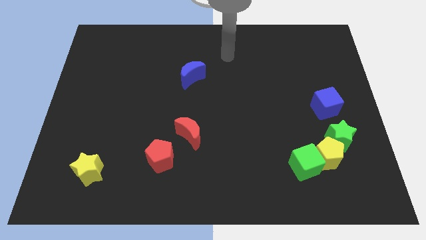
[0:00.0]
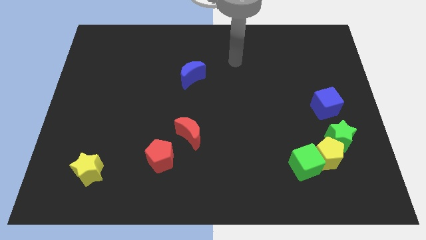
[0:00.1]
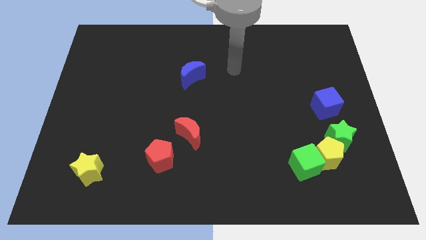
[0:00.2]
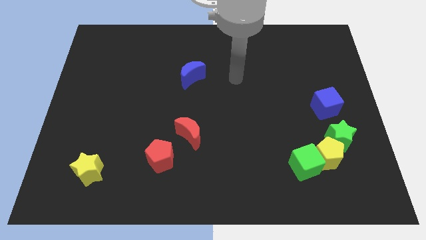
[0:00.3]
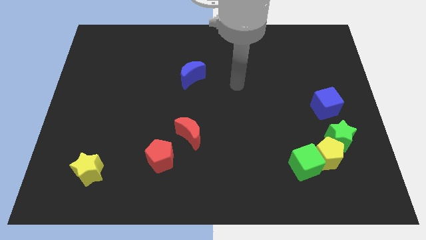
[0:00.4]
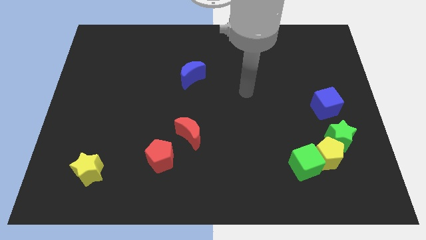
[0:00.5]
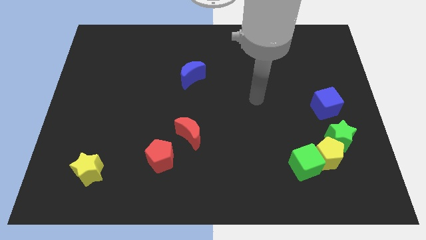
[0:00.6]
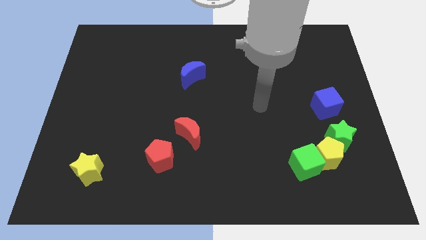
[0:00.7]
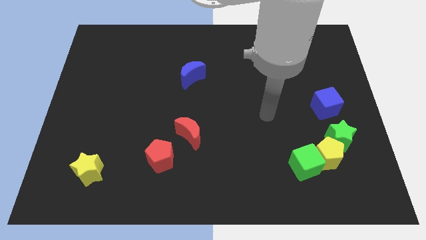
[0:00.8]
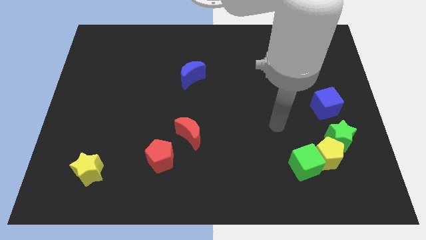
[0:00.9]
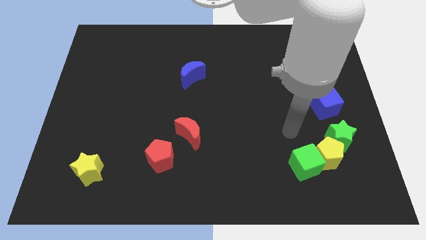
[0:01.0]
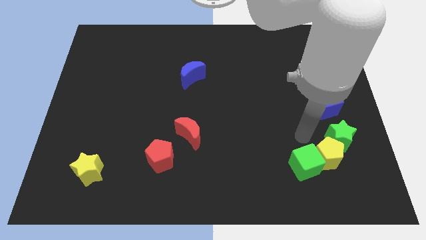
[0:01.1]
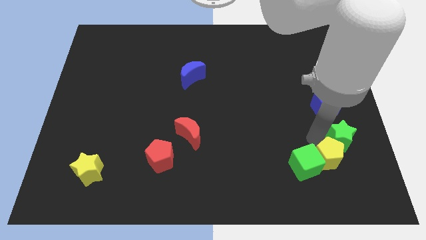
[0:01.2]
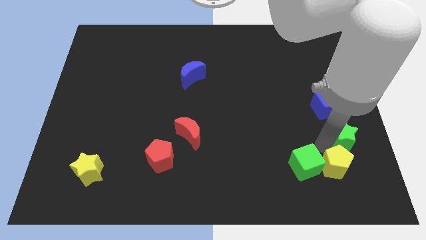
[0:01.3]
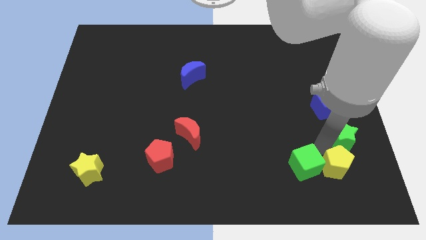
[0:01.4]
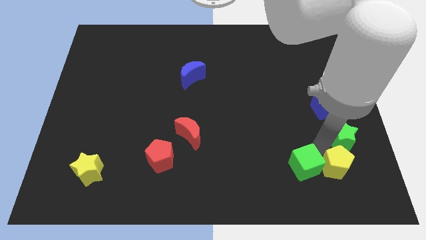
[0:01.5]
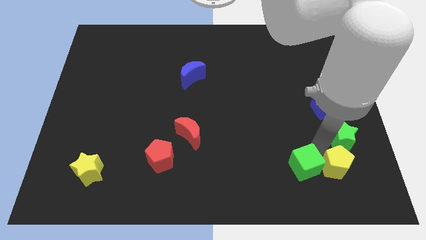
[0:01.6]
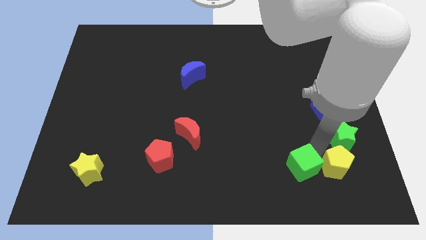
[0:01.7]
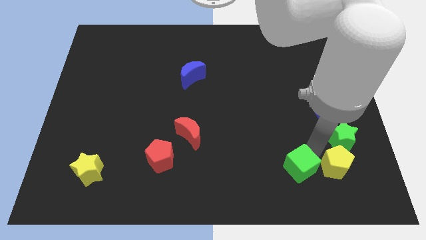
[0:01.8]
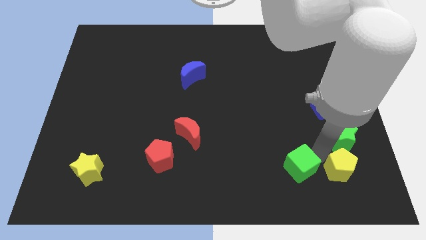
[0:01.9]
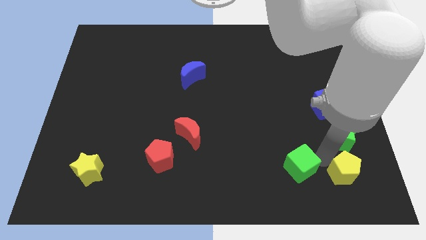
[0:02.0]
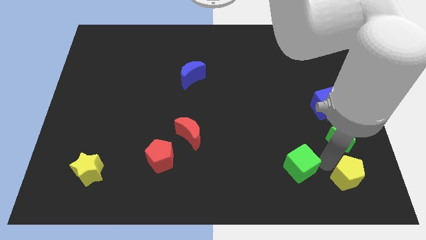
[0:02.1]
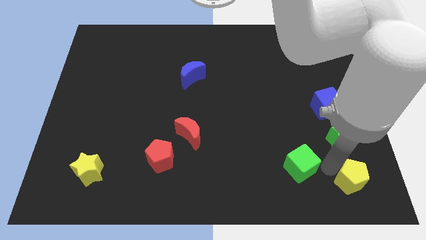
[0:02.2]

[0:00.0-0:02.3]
move the green cube away from the yellow pentagon

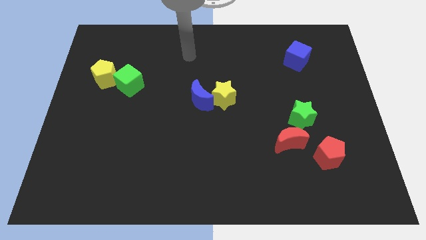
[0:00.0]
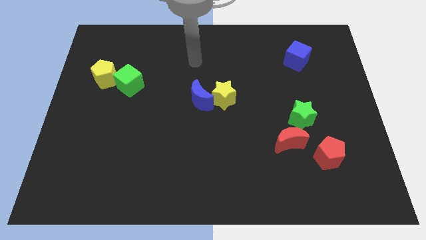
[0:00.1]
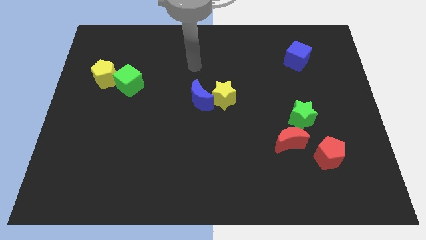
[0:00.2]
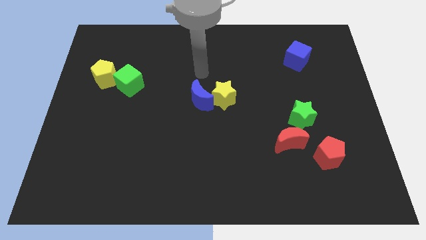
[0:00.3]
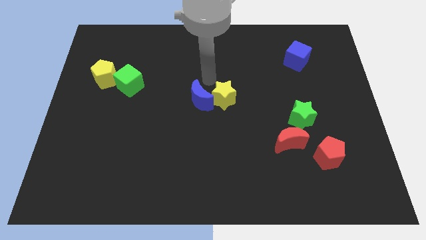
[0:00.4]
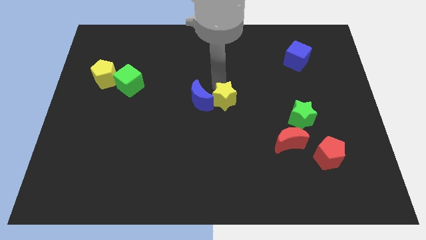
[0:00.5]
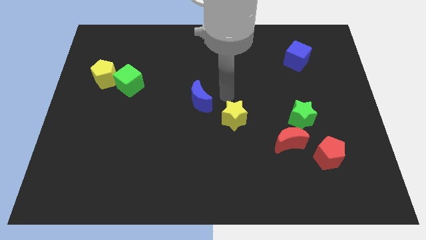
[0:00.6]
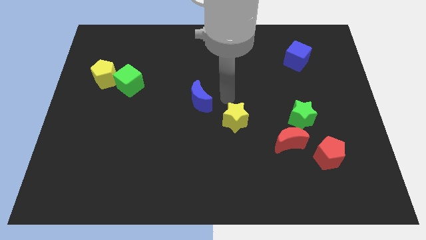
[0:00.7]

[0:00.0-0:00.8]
pull the blue moon apart from the yellow star

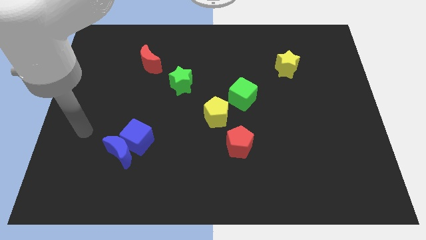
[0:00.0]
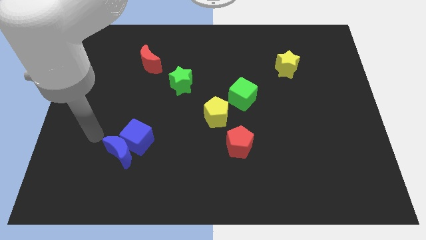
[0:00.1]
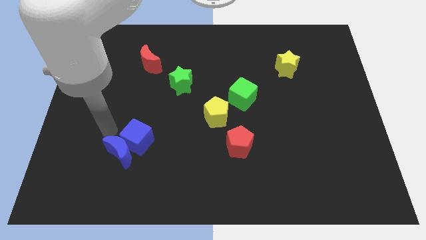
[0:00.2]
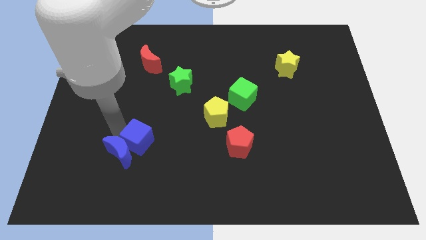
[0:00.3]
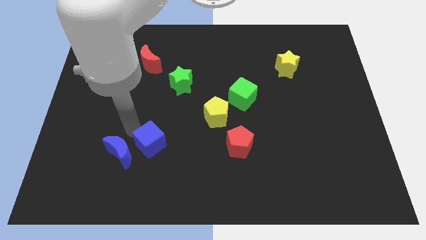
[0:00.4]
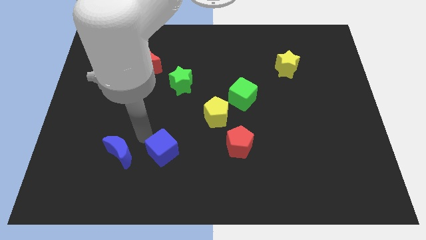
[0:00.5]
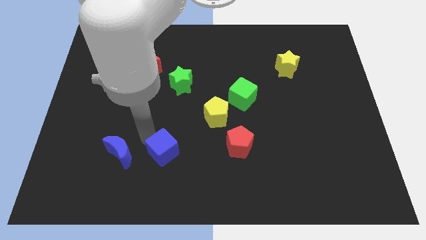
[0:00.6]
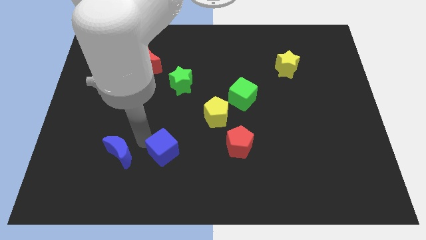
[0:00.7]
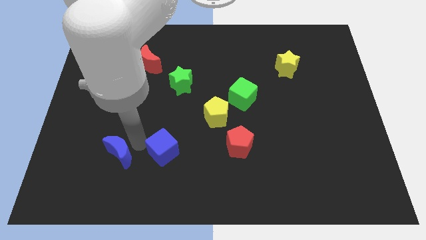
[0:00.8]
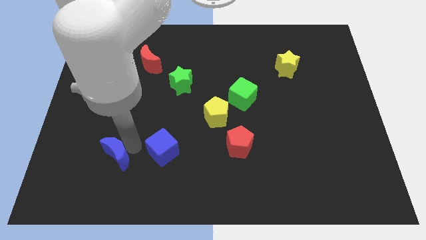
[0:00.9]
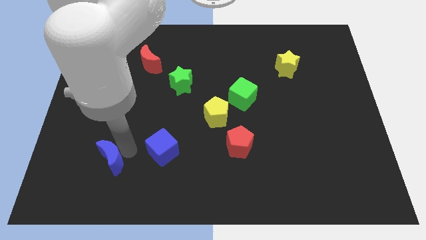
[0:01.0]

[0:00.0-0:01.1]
pull the blue moon apart from the blue cube

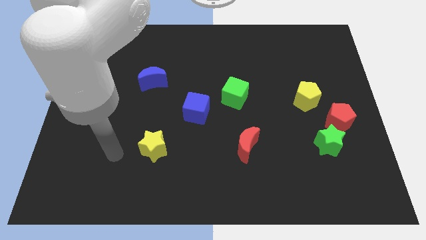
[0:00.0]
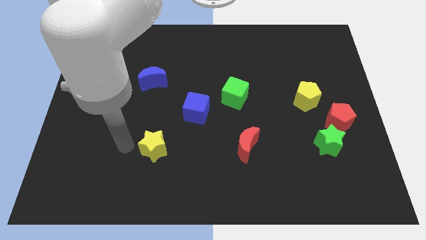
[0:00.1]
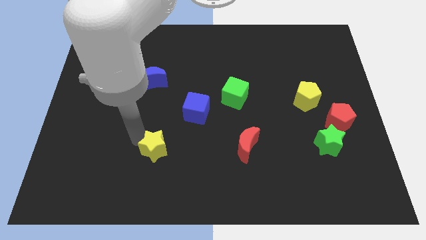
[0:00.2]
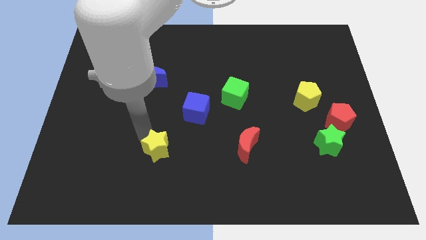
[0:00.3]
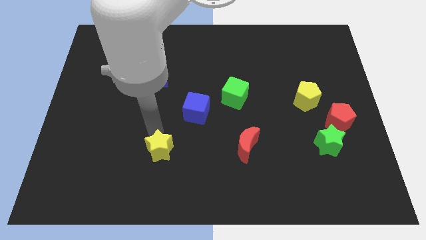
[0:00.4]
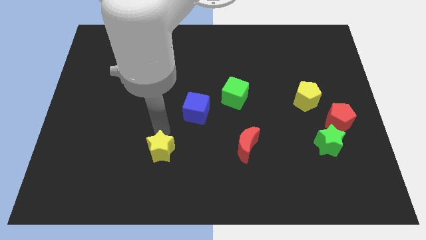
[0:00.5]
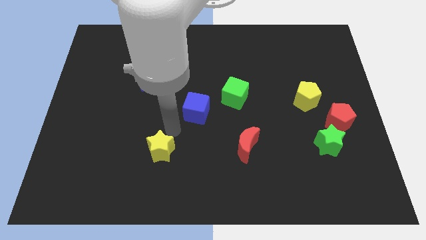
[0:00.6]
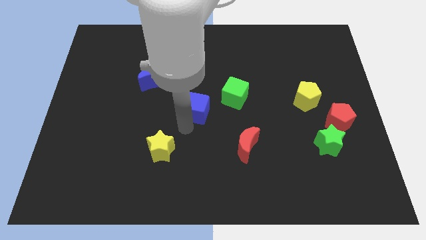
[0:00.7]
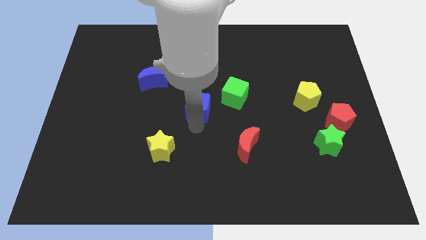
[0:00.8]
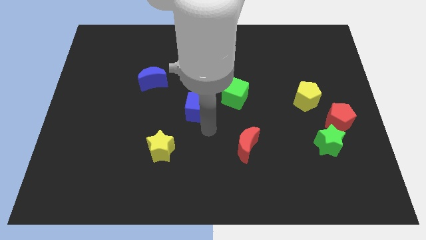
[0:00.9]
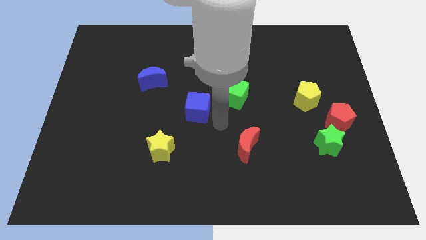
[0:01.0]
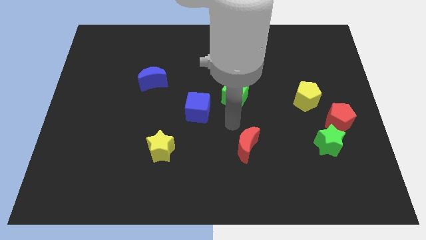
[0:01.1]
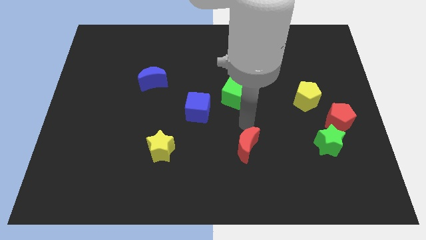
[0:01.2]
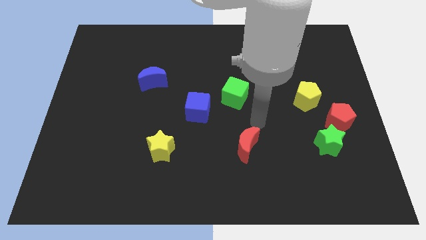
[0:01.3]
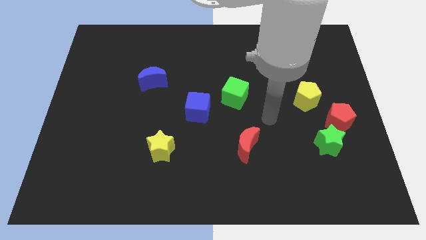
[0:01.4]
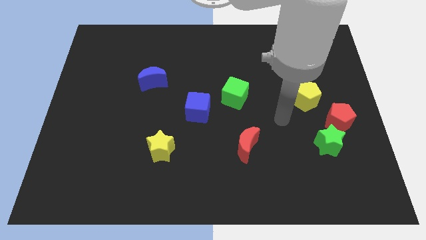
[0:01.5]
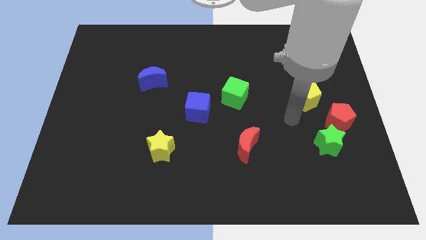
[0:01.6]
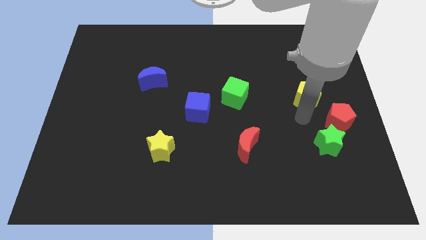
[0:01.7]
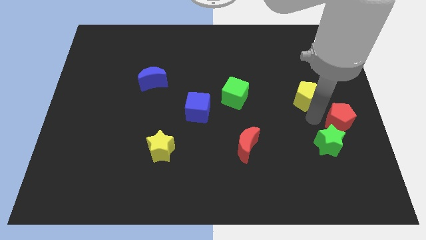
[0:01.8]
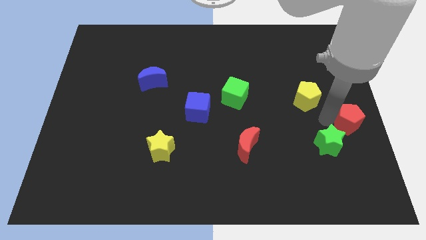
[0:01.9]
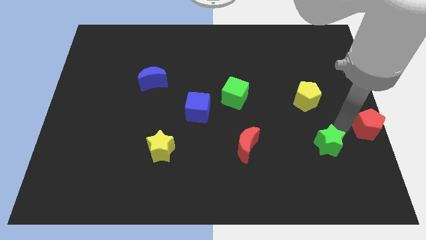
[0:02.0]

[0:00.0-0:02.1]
separate the green star from the red pentagon

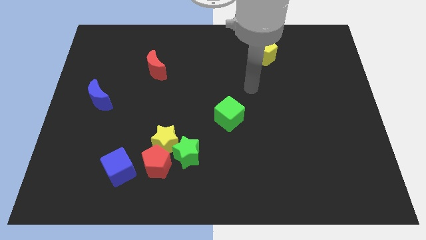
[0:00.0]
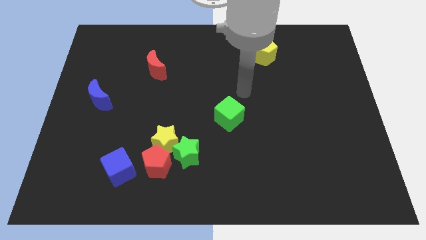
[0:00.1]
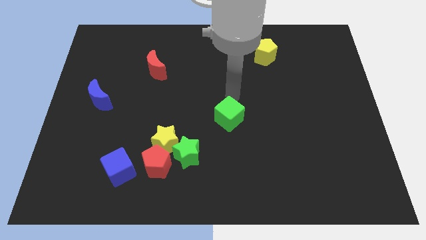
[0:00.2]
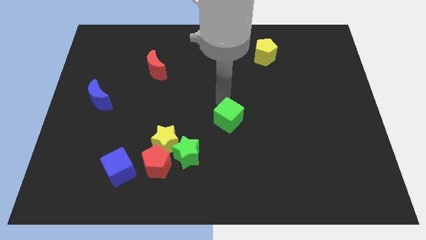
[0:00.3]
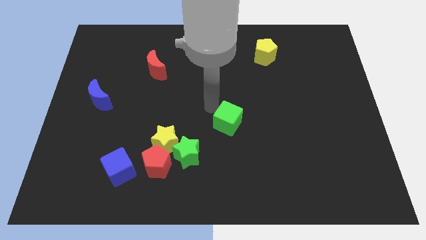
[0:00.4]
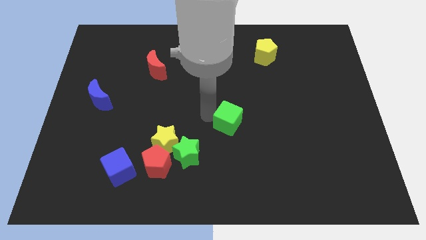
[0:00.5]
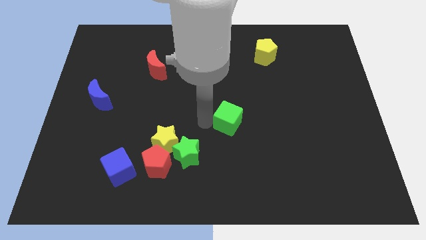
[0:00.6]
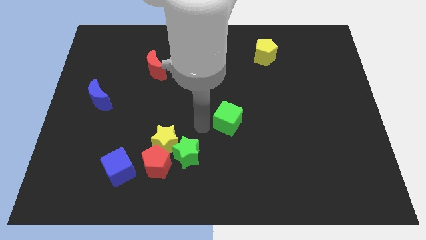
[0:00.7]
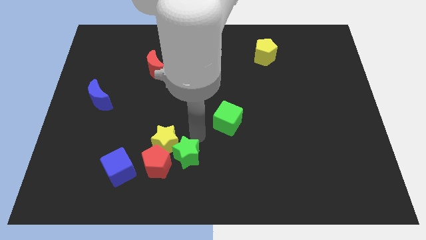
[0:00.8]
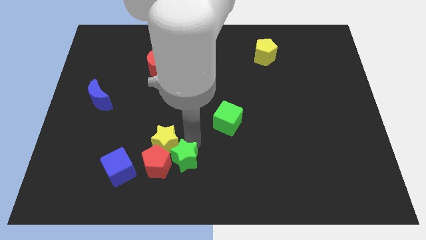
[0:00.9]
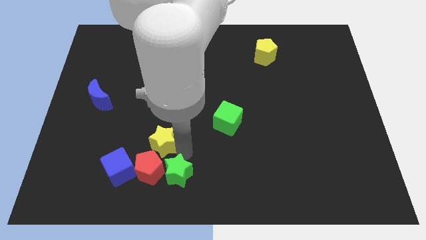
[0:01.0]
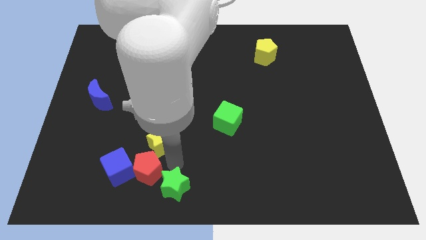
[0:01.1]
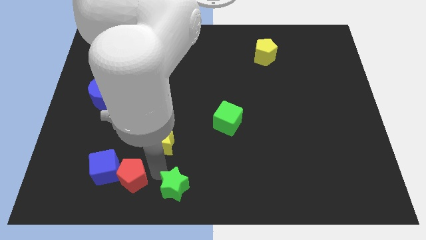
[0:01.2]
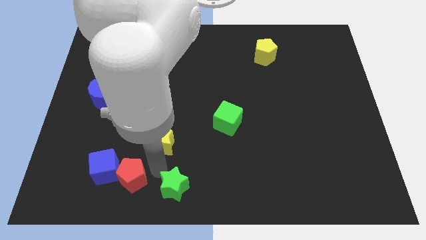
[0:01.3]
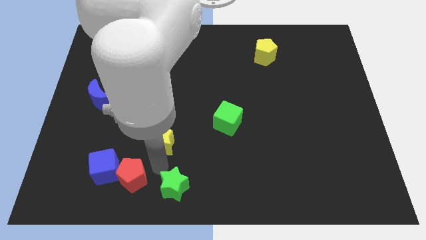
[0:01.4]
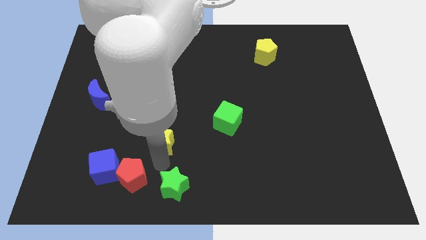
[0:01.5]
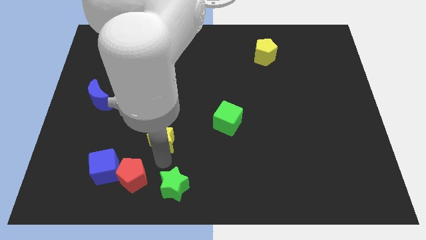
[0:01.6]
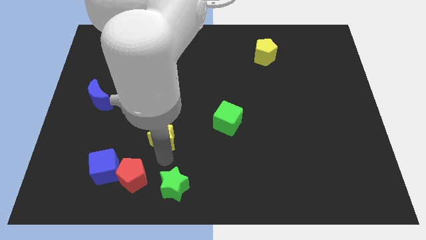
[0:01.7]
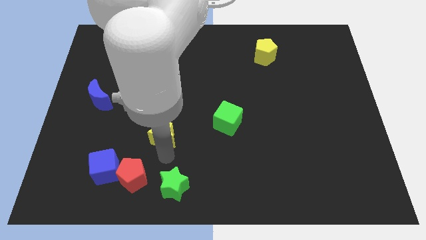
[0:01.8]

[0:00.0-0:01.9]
pull the yellow star apart from the red pentagon and green star

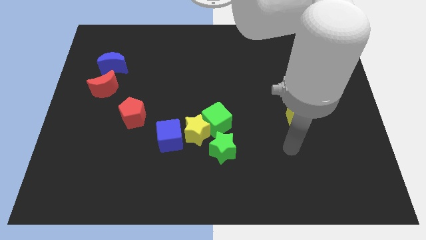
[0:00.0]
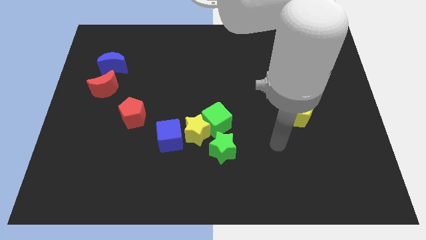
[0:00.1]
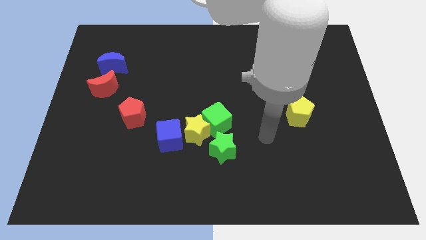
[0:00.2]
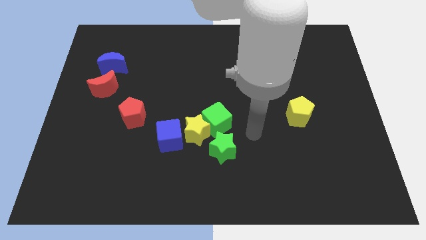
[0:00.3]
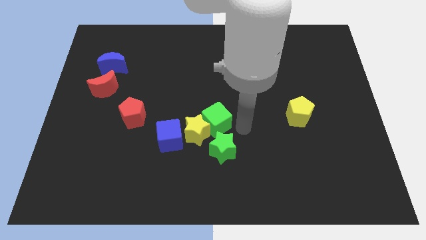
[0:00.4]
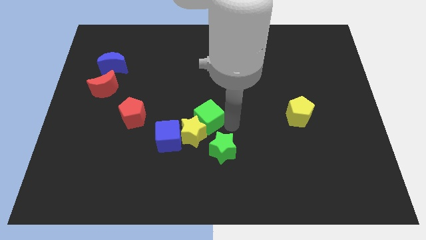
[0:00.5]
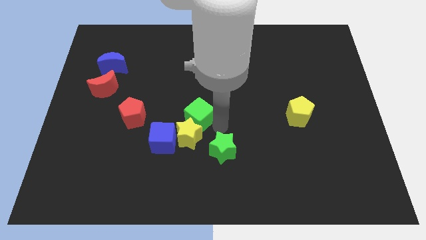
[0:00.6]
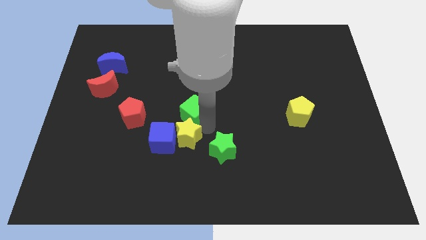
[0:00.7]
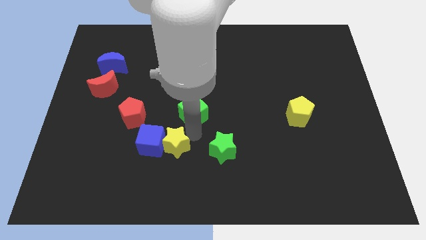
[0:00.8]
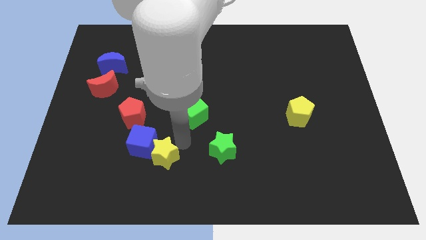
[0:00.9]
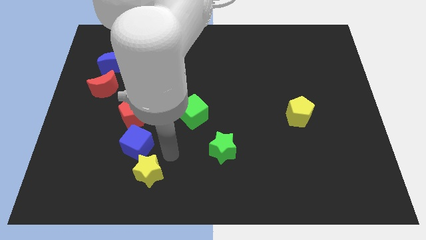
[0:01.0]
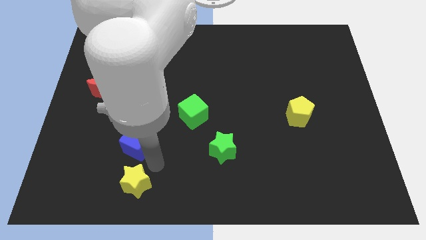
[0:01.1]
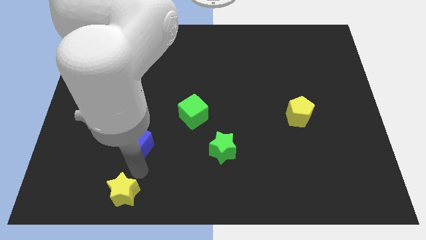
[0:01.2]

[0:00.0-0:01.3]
separate the blue cube from the yellow star
